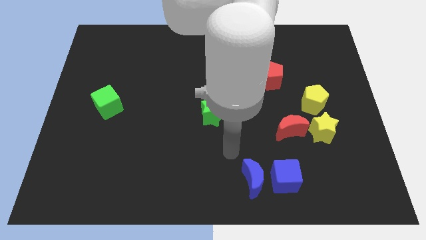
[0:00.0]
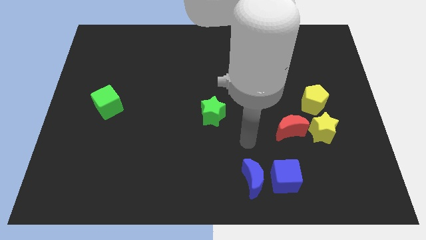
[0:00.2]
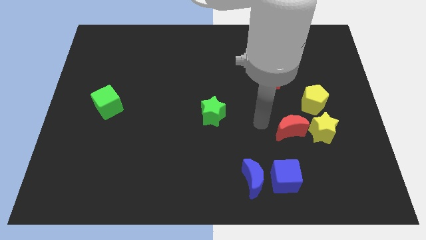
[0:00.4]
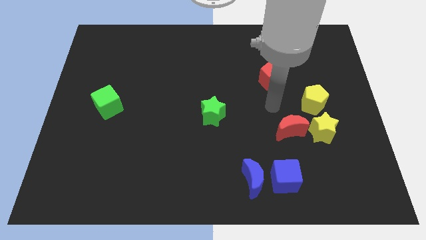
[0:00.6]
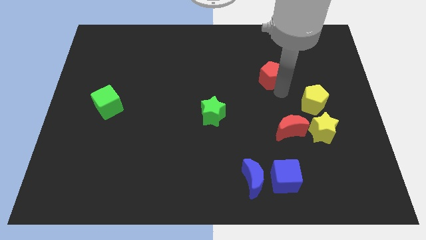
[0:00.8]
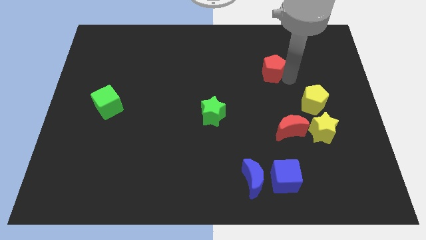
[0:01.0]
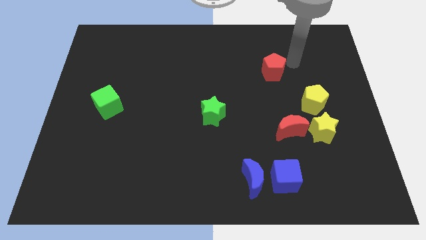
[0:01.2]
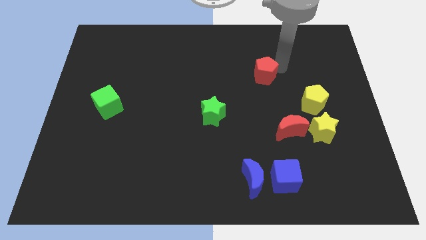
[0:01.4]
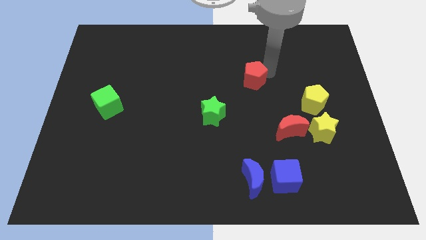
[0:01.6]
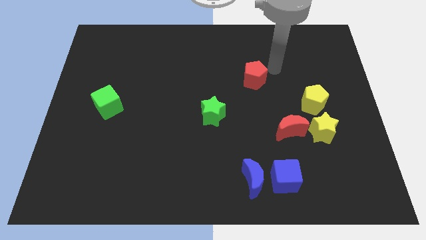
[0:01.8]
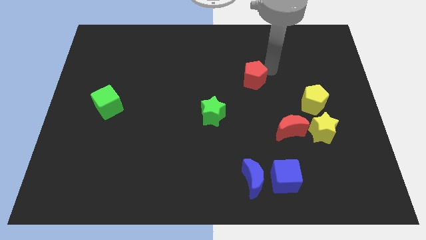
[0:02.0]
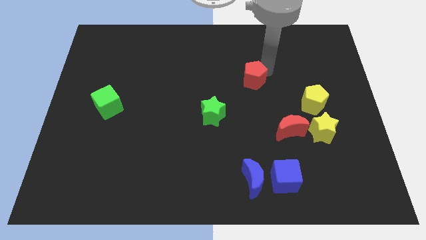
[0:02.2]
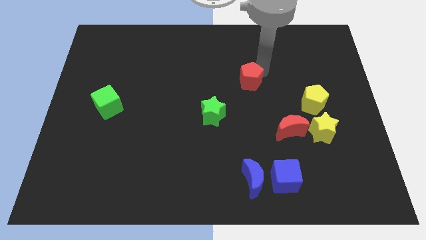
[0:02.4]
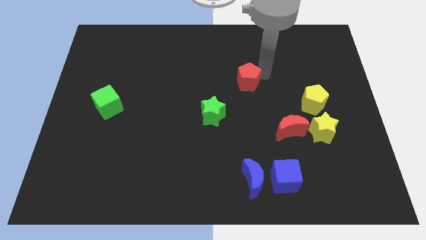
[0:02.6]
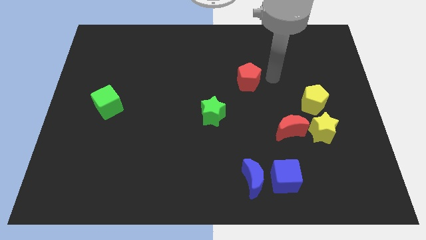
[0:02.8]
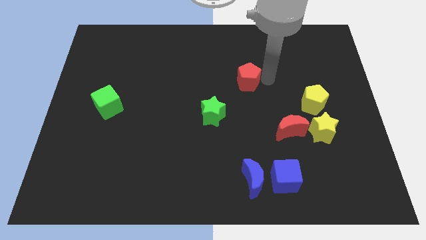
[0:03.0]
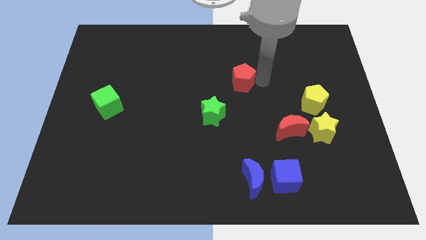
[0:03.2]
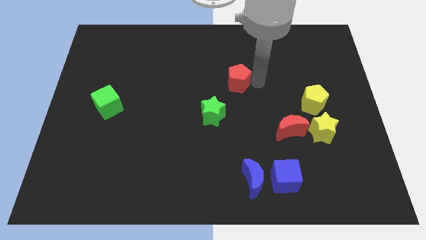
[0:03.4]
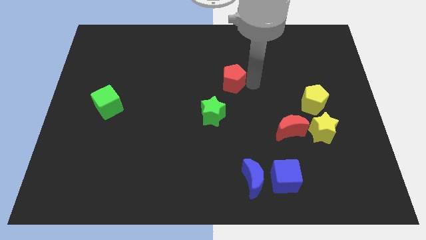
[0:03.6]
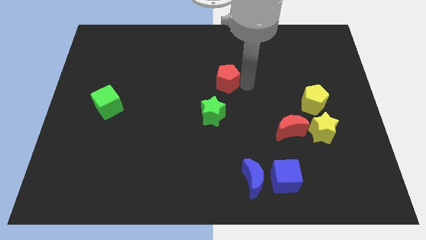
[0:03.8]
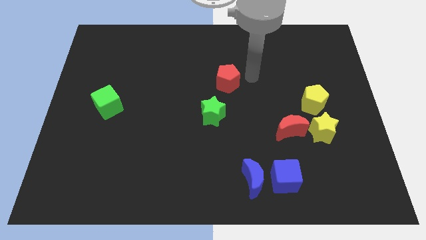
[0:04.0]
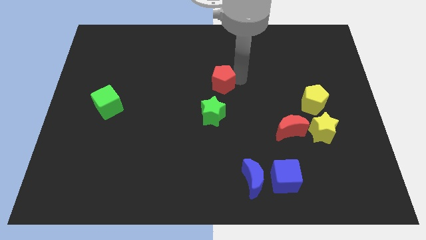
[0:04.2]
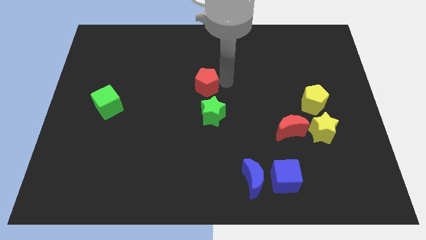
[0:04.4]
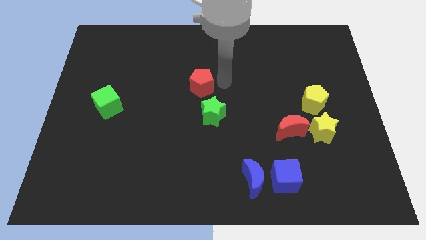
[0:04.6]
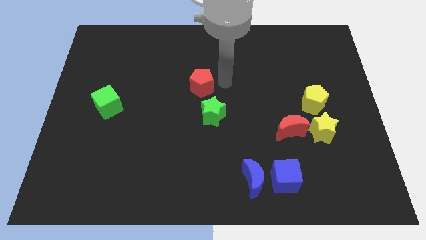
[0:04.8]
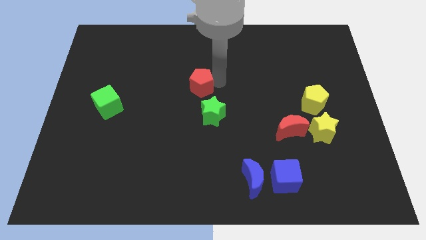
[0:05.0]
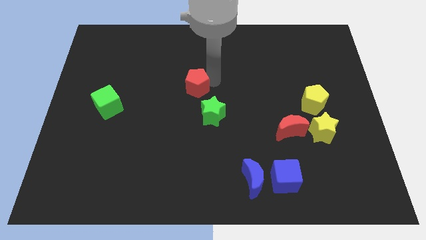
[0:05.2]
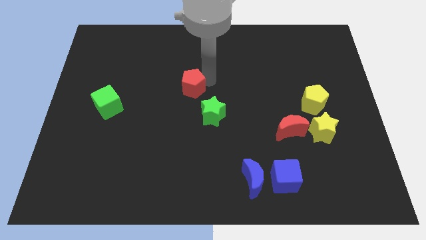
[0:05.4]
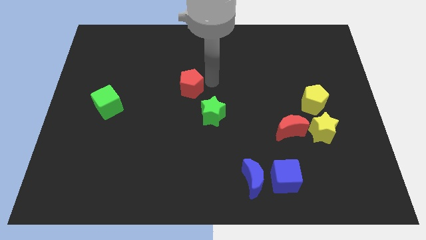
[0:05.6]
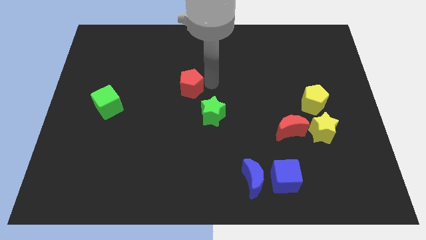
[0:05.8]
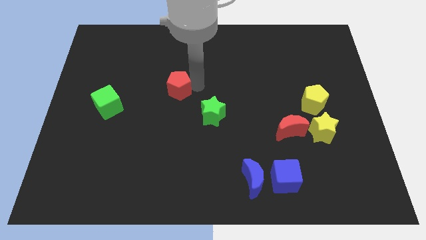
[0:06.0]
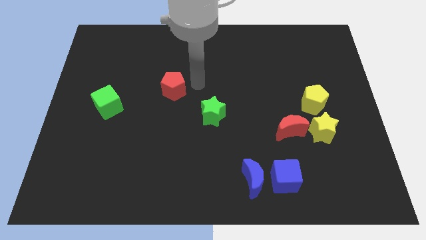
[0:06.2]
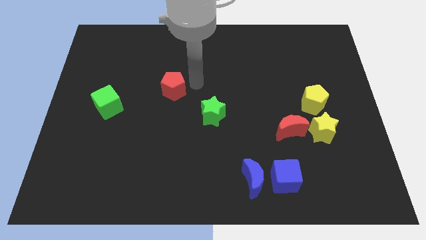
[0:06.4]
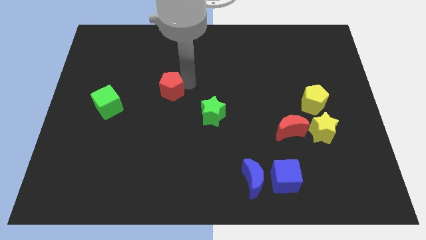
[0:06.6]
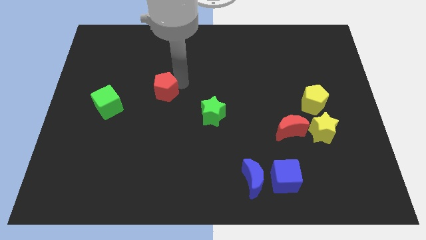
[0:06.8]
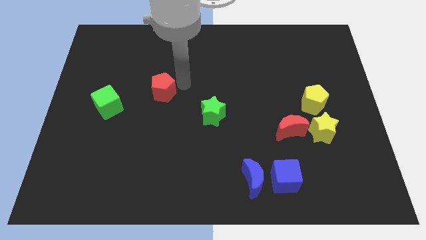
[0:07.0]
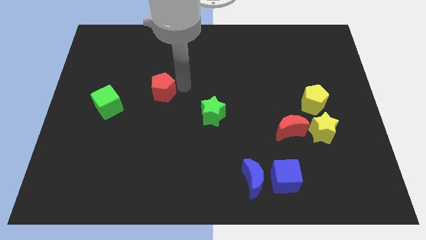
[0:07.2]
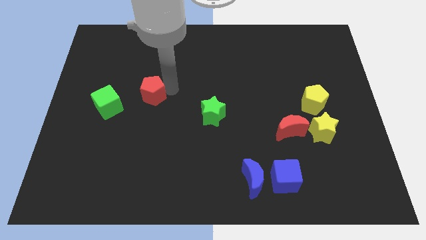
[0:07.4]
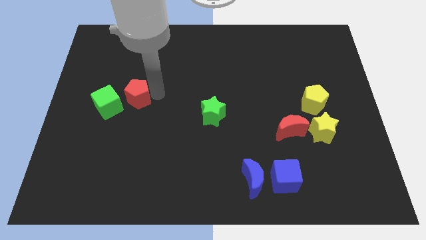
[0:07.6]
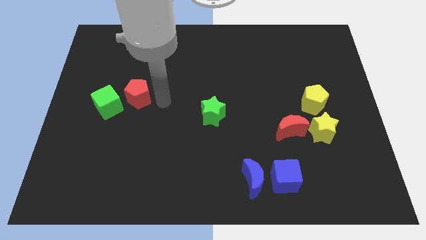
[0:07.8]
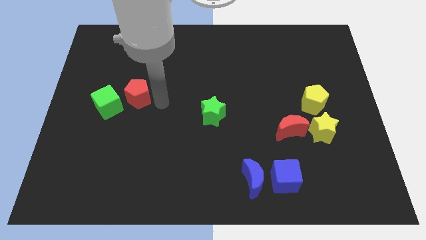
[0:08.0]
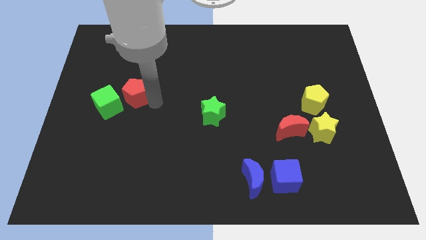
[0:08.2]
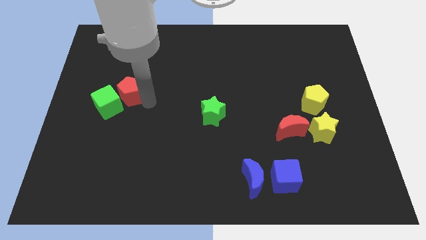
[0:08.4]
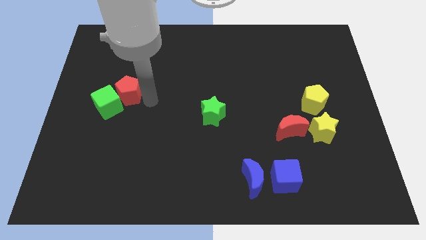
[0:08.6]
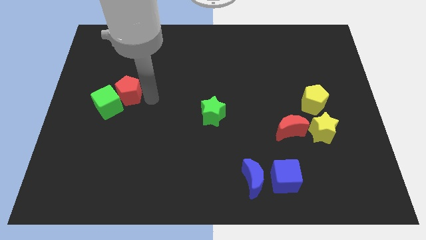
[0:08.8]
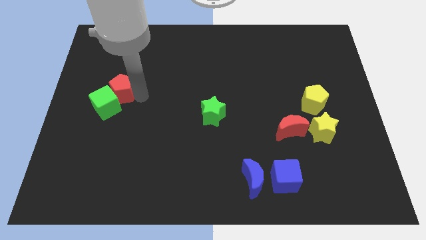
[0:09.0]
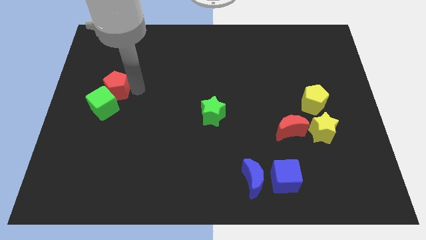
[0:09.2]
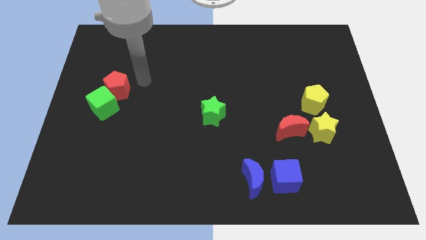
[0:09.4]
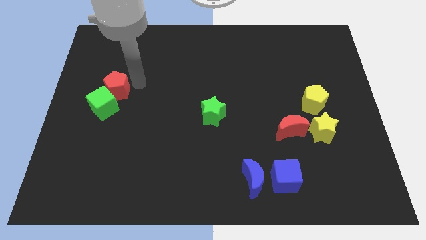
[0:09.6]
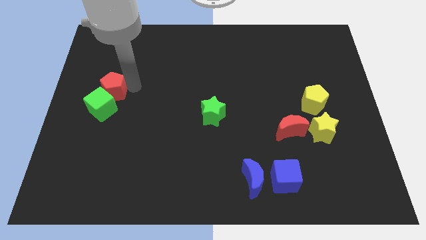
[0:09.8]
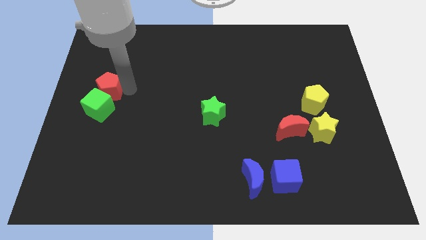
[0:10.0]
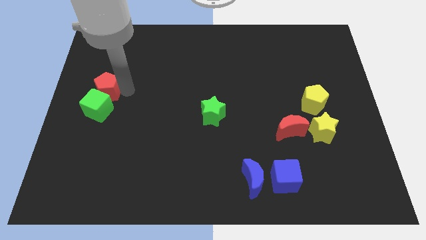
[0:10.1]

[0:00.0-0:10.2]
push the red pentagon to the left side of the board

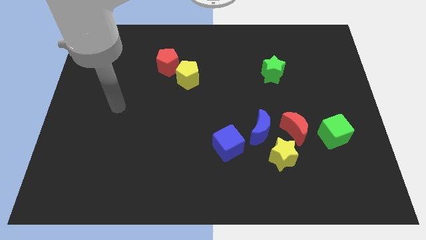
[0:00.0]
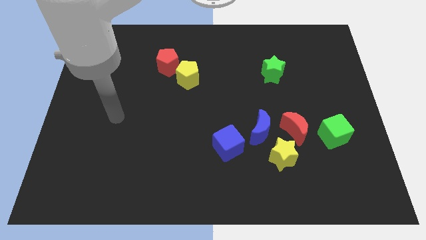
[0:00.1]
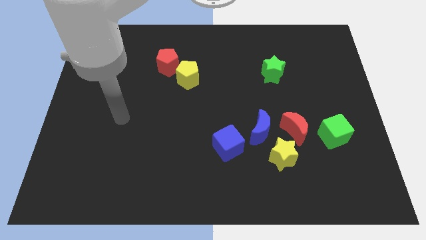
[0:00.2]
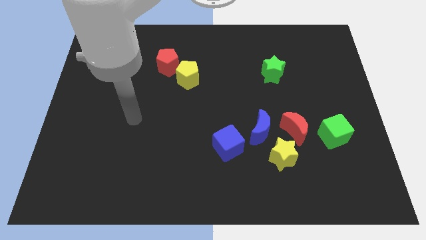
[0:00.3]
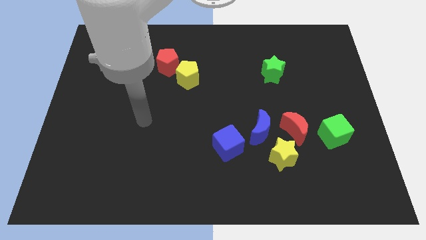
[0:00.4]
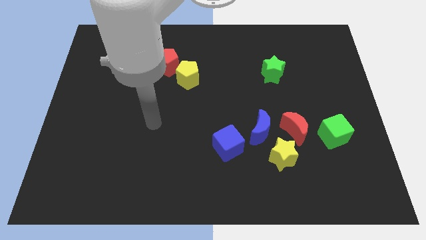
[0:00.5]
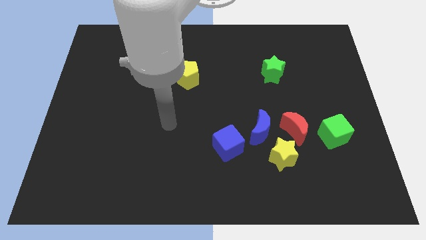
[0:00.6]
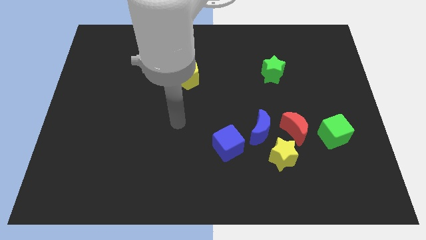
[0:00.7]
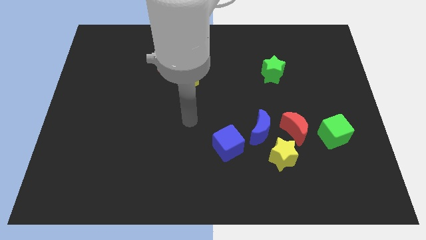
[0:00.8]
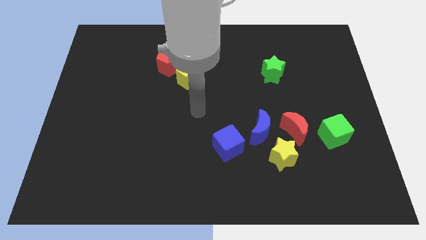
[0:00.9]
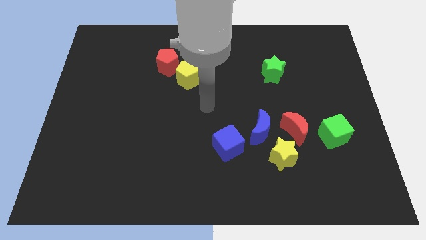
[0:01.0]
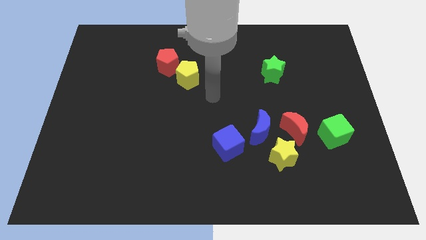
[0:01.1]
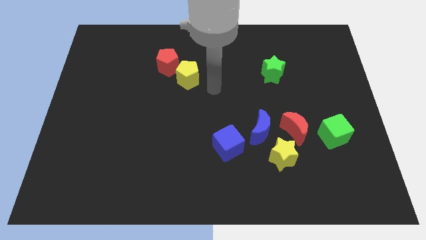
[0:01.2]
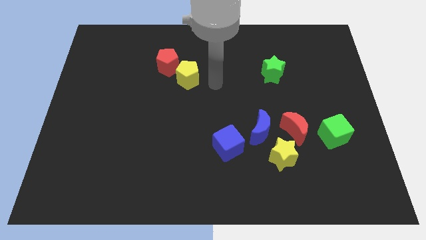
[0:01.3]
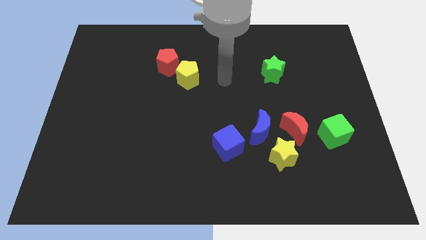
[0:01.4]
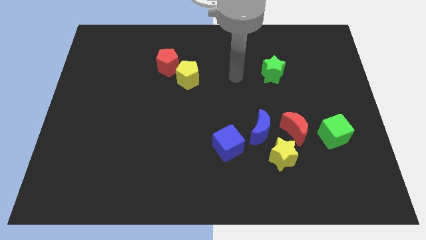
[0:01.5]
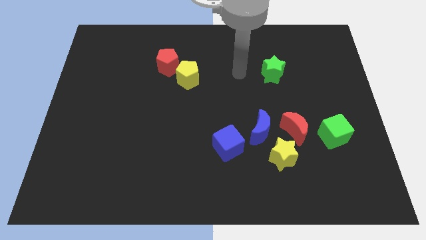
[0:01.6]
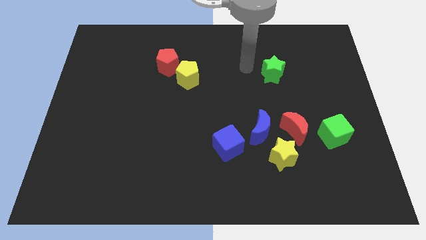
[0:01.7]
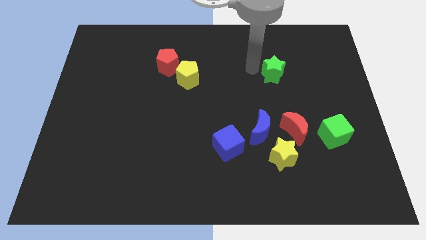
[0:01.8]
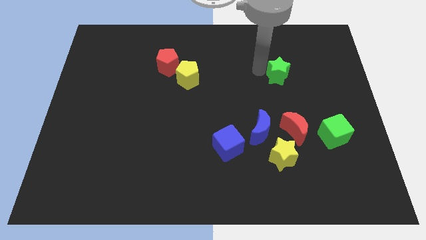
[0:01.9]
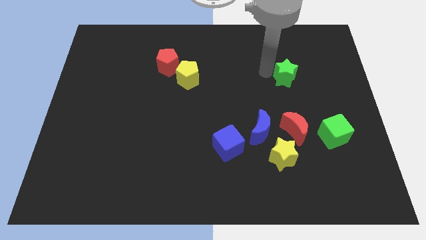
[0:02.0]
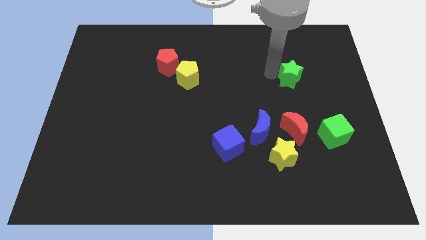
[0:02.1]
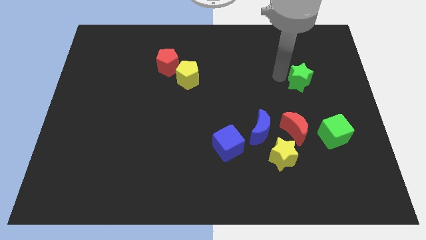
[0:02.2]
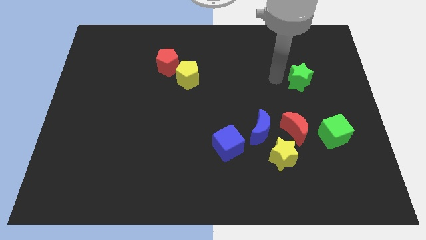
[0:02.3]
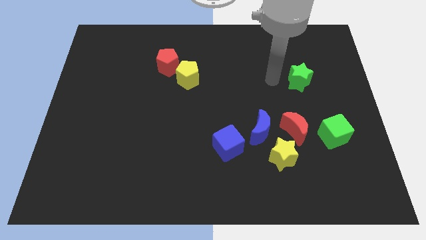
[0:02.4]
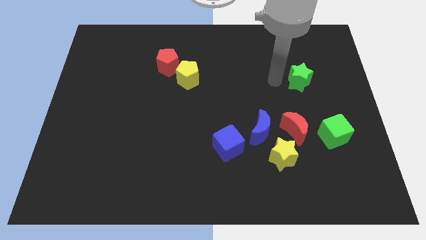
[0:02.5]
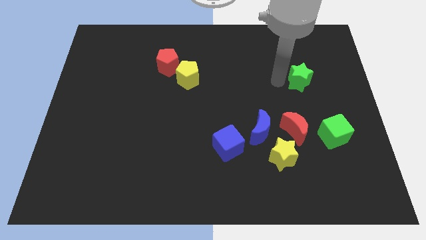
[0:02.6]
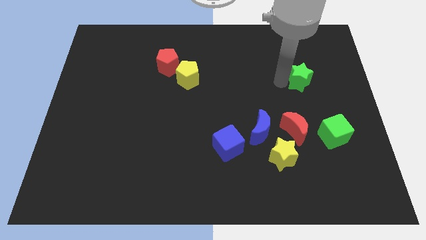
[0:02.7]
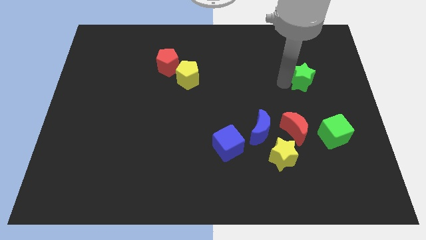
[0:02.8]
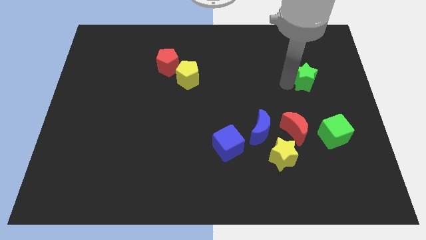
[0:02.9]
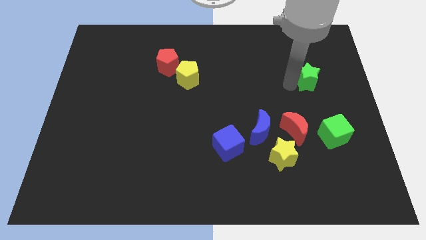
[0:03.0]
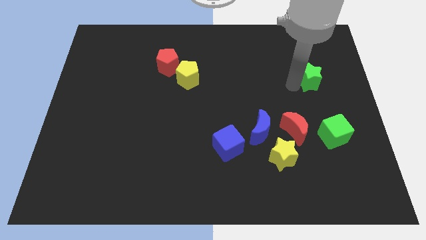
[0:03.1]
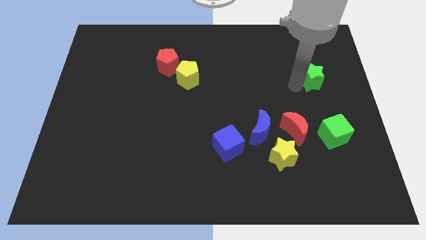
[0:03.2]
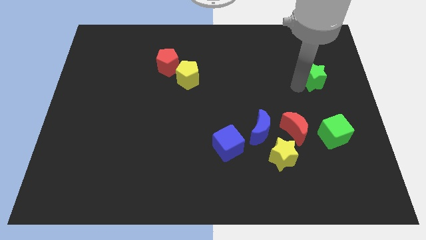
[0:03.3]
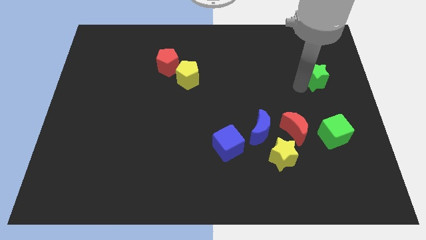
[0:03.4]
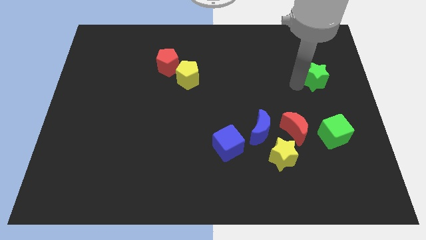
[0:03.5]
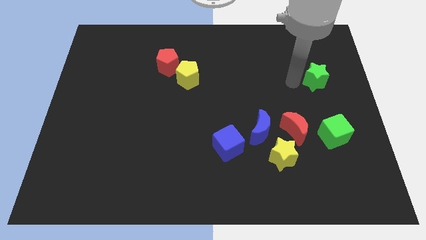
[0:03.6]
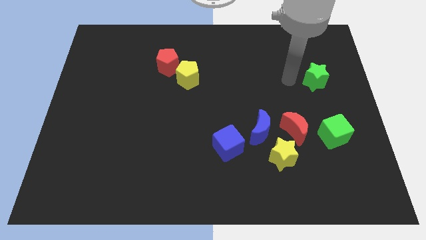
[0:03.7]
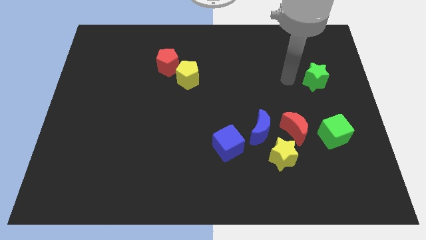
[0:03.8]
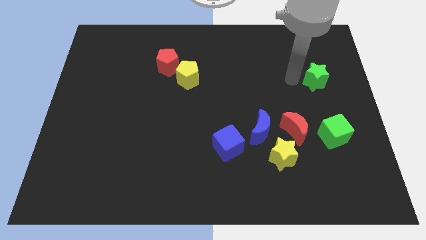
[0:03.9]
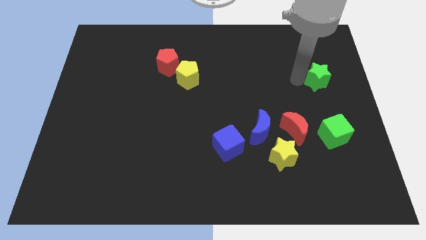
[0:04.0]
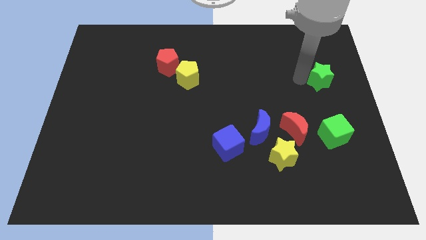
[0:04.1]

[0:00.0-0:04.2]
move the green star to the right side of the board
